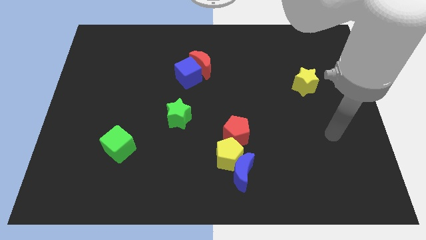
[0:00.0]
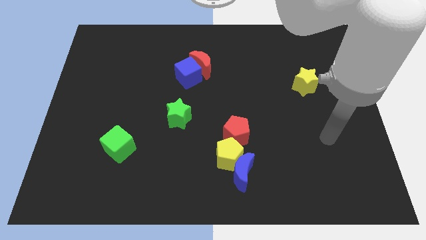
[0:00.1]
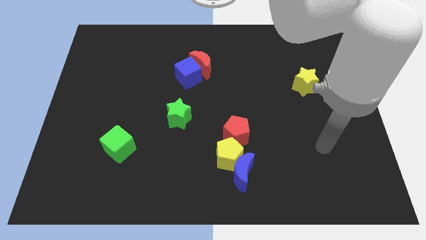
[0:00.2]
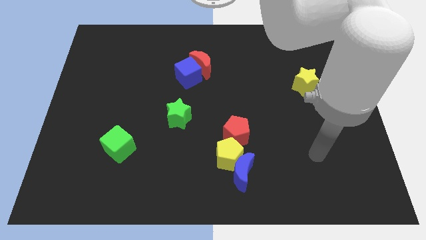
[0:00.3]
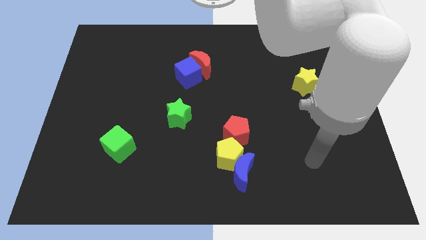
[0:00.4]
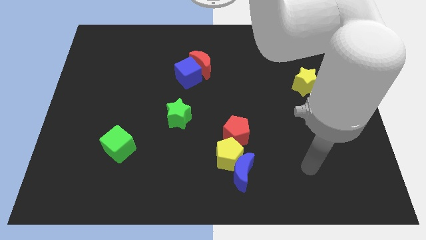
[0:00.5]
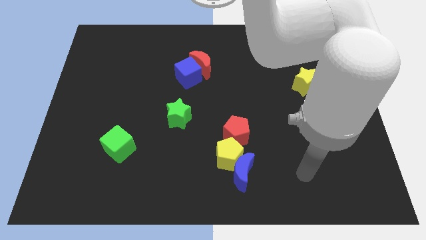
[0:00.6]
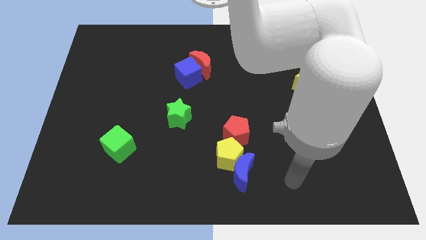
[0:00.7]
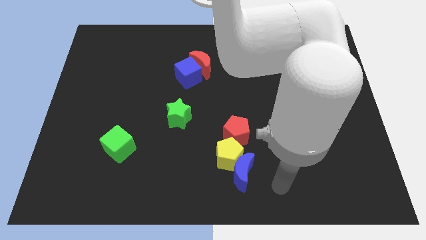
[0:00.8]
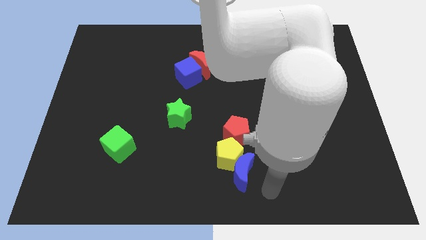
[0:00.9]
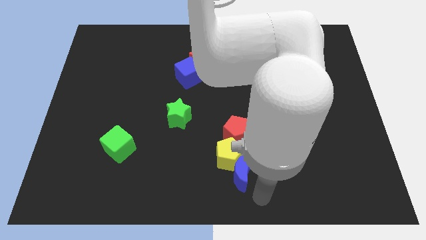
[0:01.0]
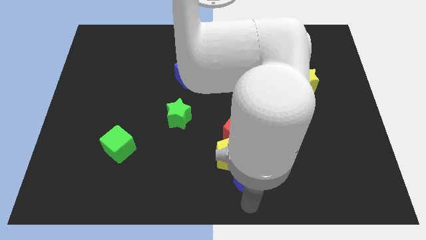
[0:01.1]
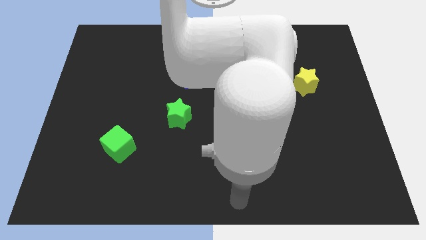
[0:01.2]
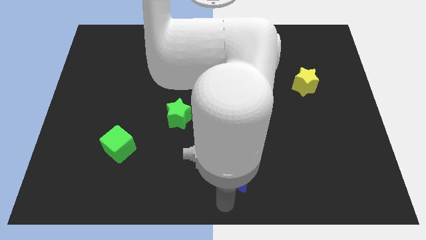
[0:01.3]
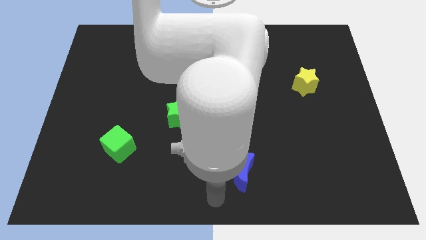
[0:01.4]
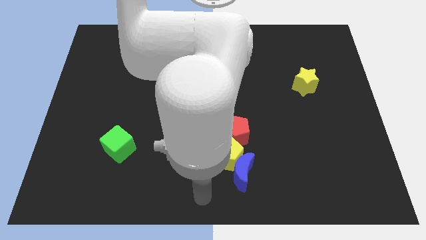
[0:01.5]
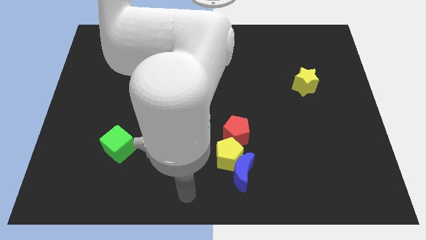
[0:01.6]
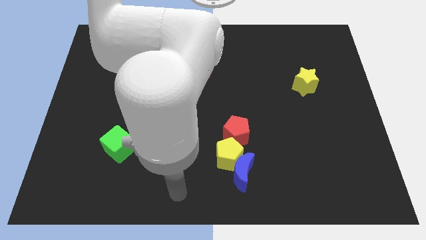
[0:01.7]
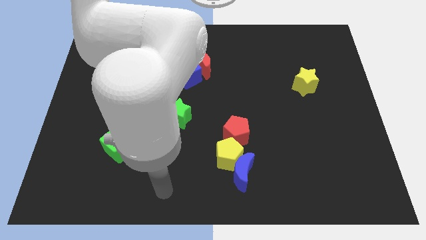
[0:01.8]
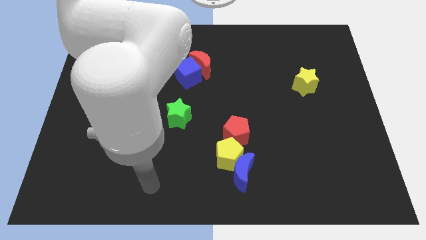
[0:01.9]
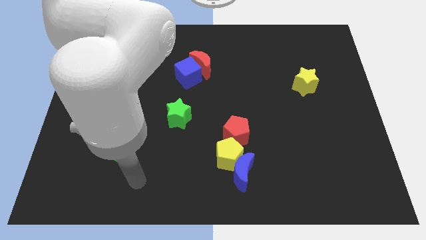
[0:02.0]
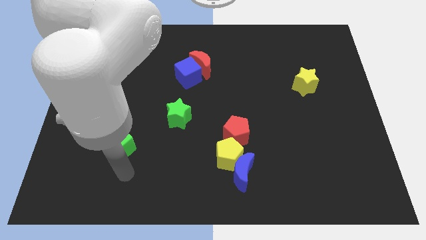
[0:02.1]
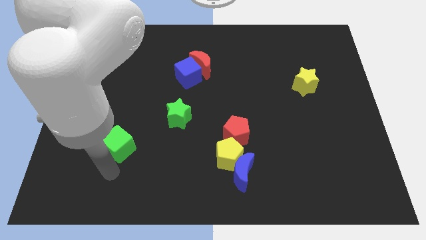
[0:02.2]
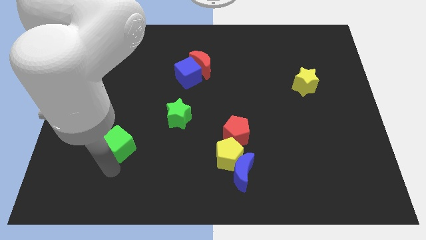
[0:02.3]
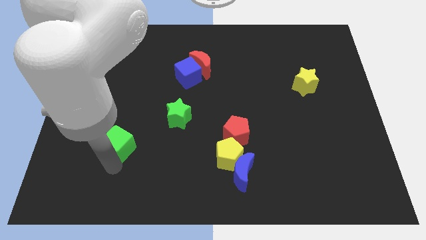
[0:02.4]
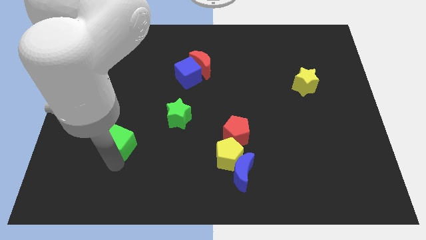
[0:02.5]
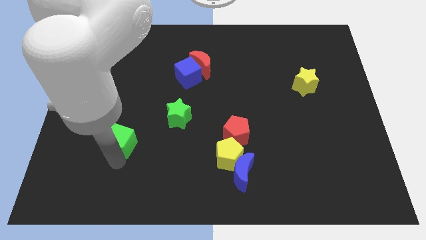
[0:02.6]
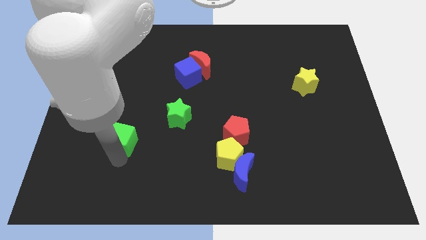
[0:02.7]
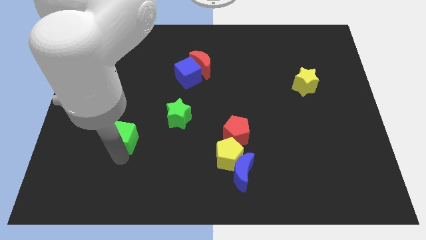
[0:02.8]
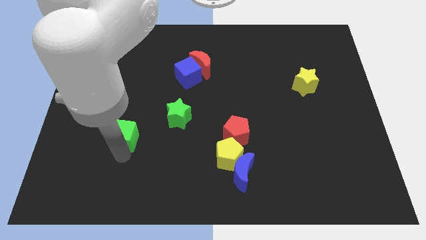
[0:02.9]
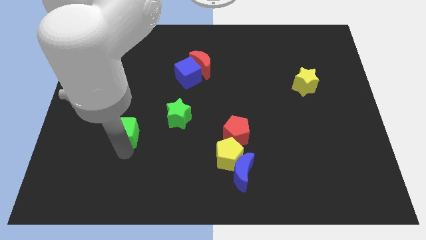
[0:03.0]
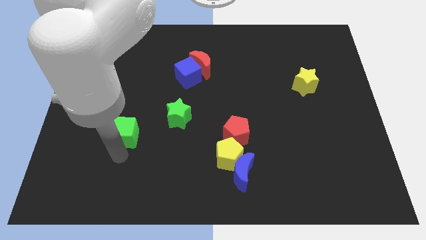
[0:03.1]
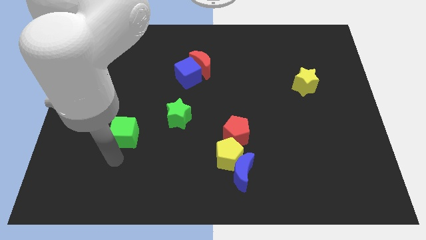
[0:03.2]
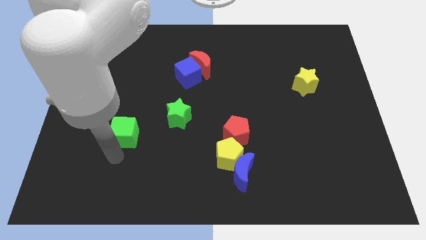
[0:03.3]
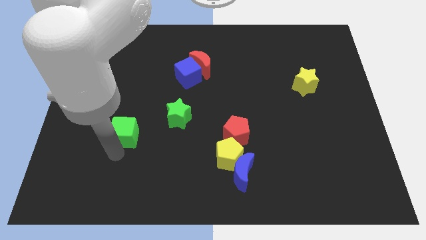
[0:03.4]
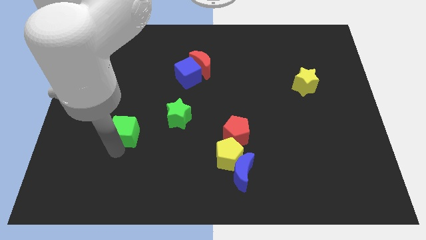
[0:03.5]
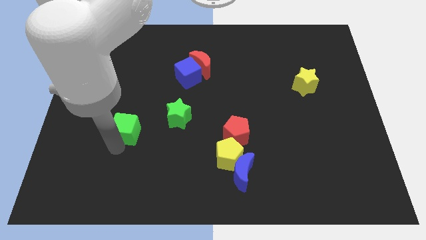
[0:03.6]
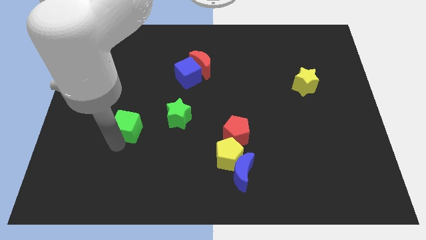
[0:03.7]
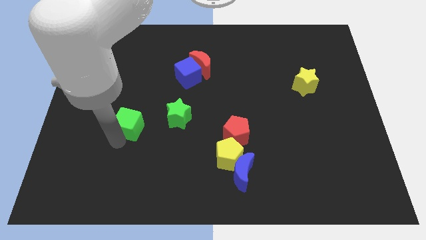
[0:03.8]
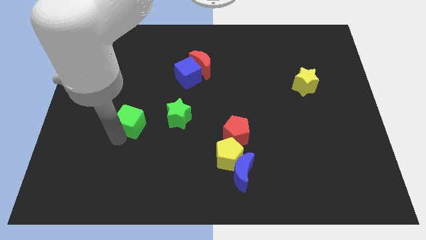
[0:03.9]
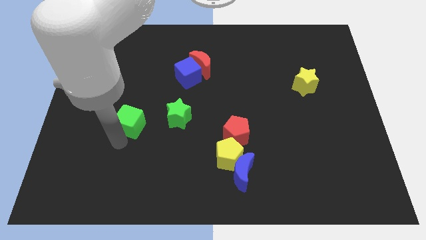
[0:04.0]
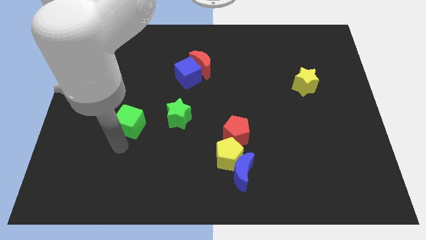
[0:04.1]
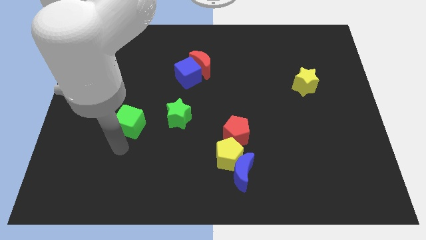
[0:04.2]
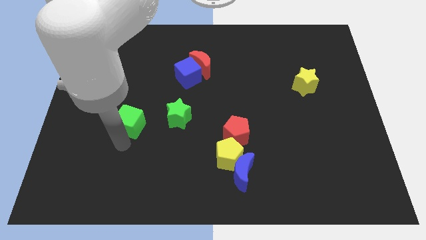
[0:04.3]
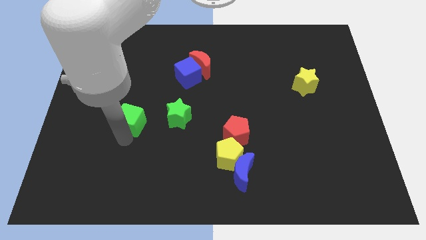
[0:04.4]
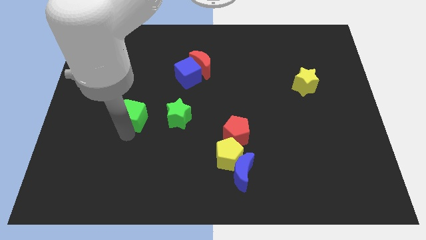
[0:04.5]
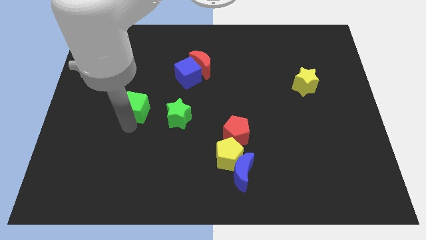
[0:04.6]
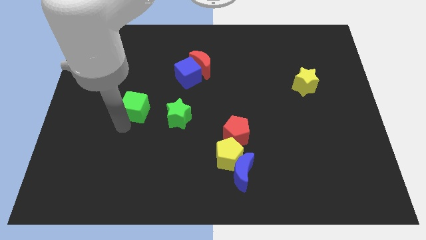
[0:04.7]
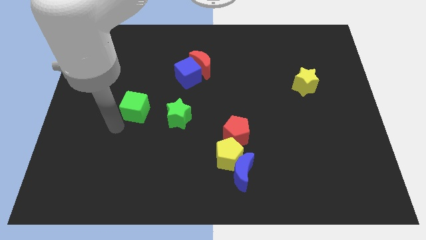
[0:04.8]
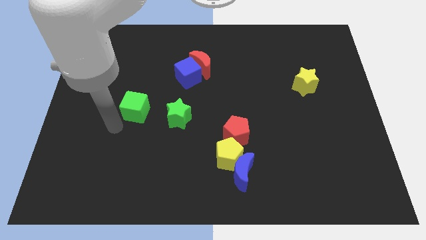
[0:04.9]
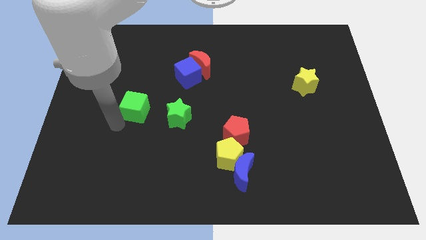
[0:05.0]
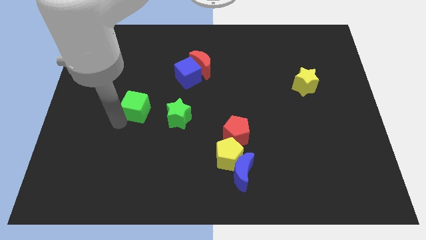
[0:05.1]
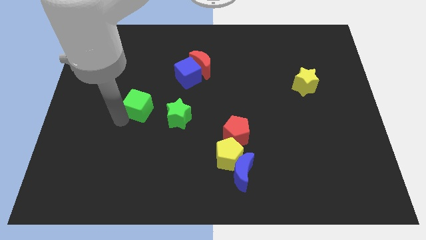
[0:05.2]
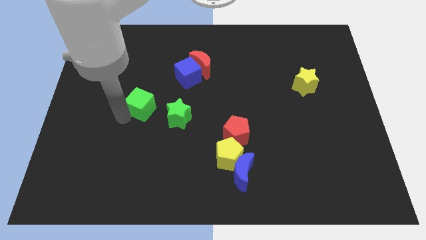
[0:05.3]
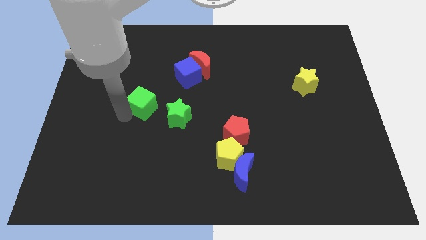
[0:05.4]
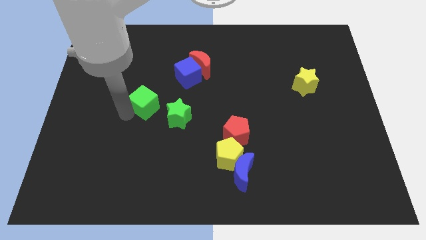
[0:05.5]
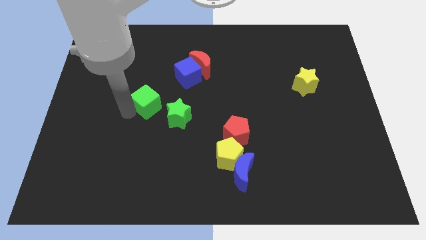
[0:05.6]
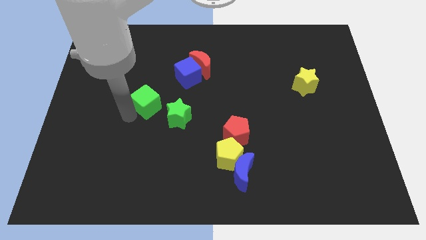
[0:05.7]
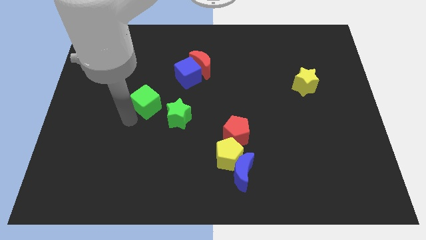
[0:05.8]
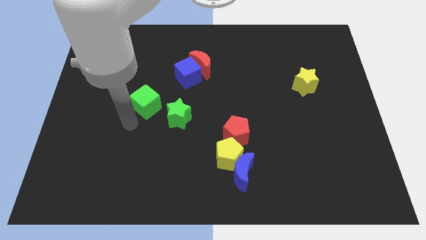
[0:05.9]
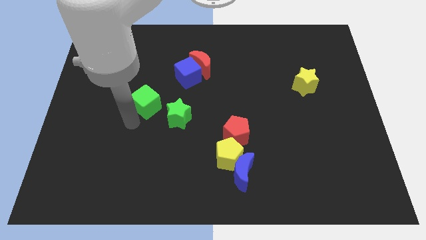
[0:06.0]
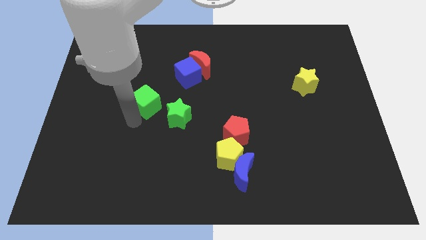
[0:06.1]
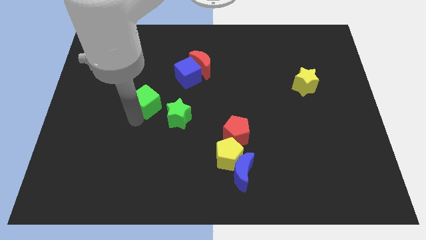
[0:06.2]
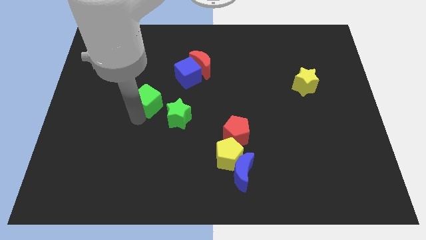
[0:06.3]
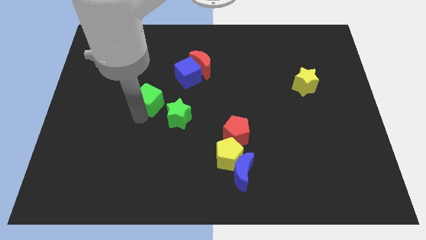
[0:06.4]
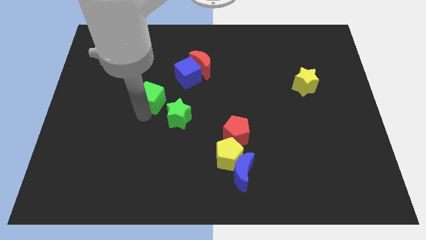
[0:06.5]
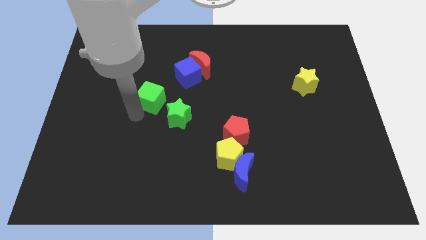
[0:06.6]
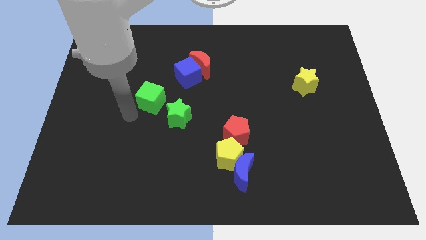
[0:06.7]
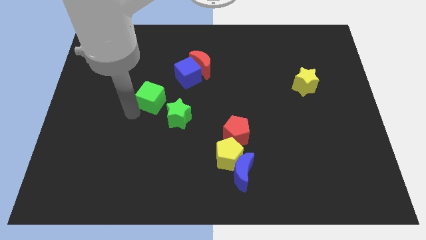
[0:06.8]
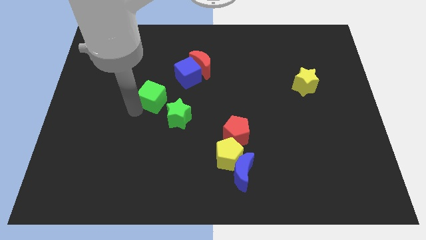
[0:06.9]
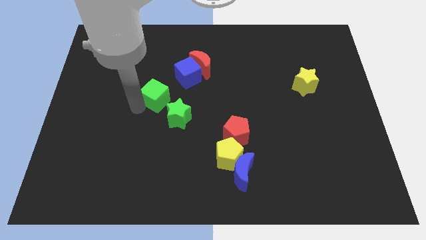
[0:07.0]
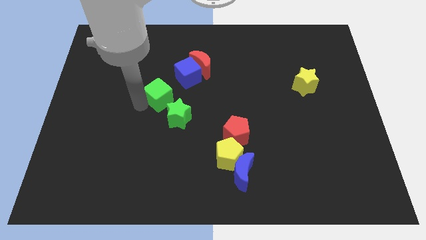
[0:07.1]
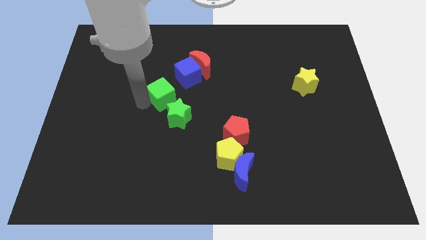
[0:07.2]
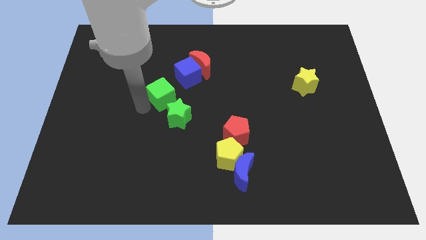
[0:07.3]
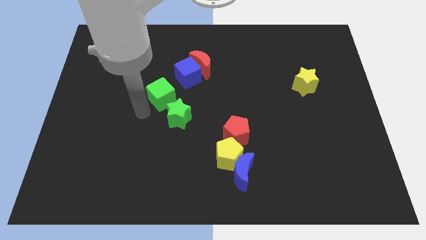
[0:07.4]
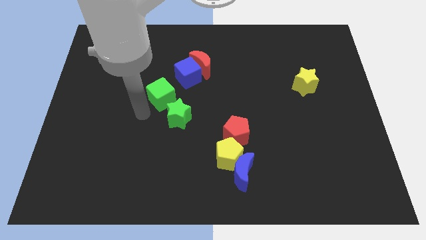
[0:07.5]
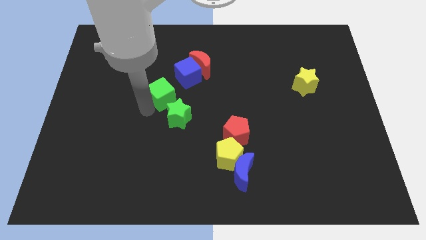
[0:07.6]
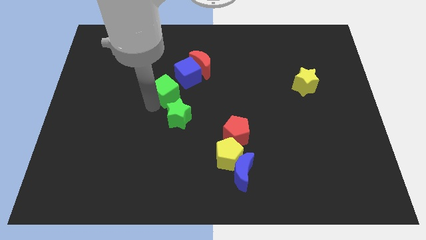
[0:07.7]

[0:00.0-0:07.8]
put the green cube diagonally down and to the left of the red moon
